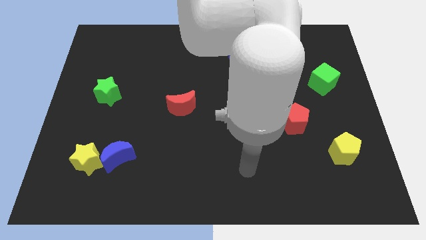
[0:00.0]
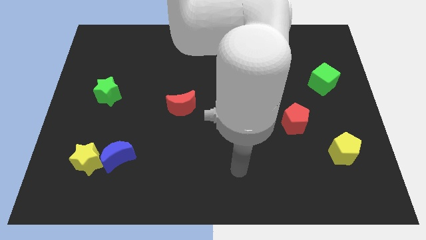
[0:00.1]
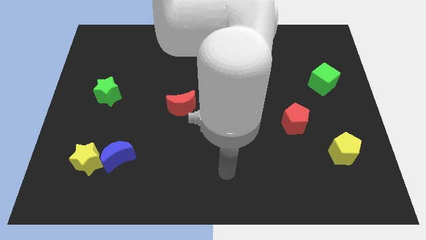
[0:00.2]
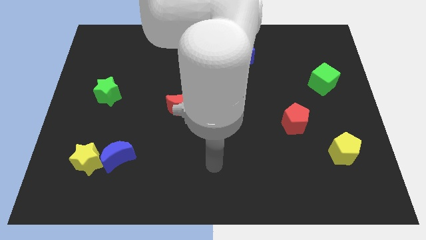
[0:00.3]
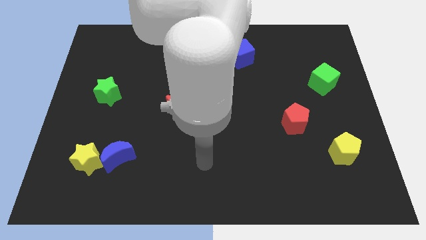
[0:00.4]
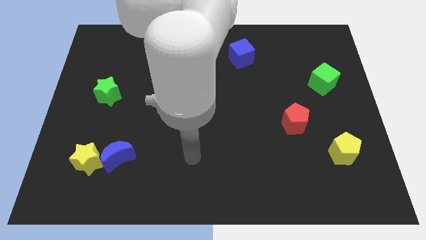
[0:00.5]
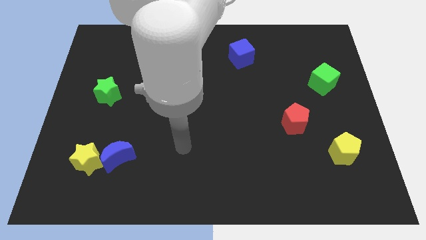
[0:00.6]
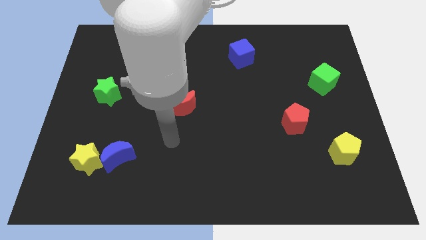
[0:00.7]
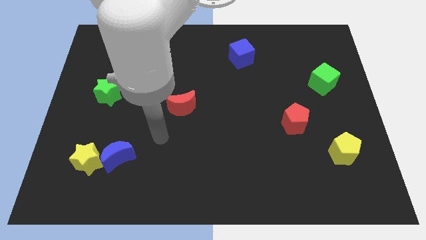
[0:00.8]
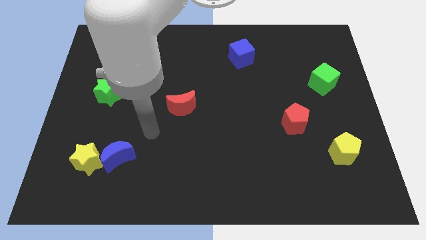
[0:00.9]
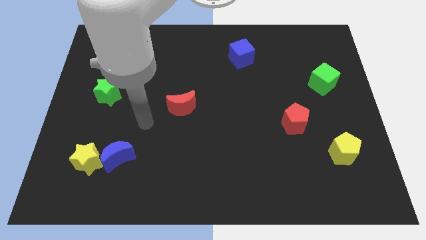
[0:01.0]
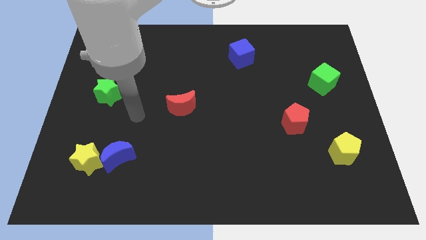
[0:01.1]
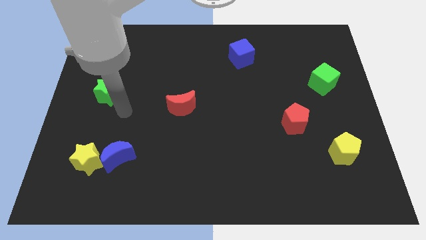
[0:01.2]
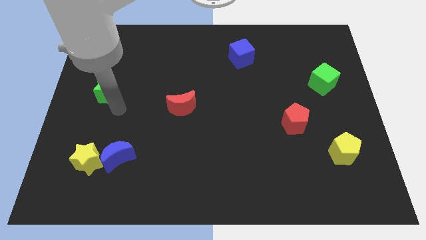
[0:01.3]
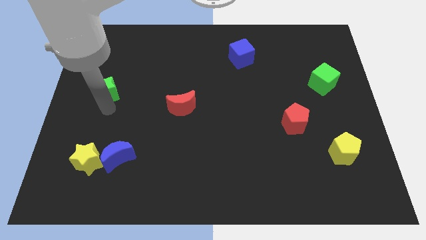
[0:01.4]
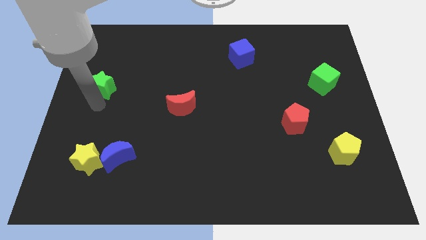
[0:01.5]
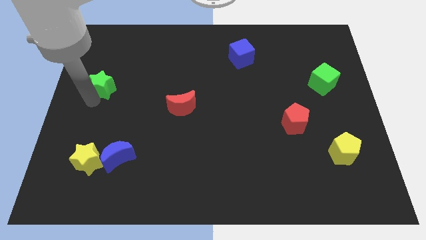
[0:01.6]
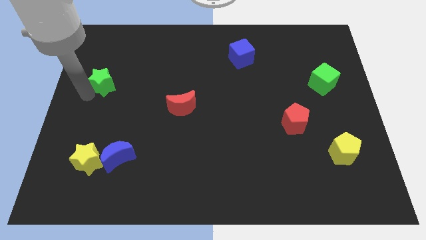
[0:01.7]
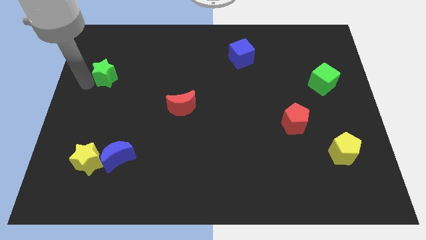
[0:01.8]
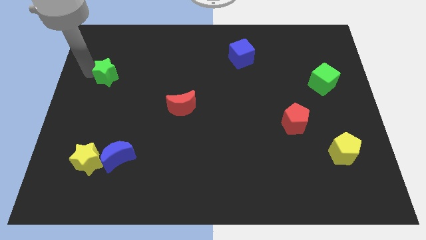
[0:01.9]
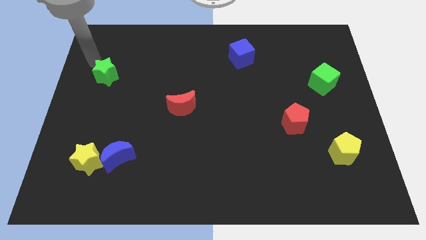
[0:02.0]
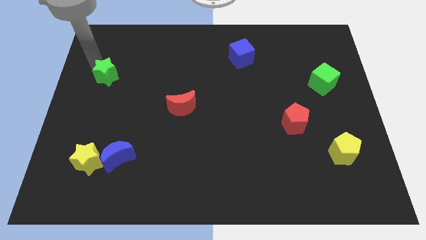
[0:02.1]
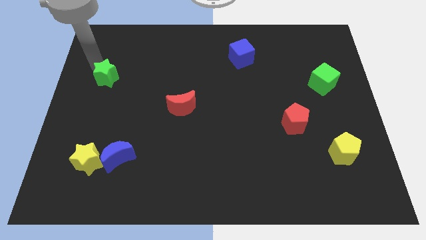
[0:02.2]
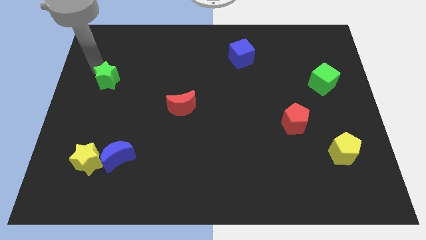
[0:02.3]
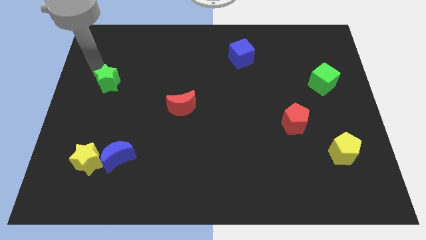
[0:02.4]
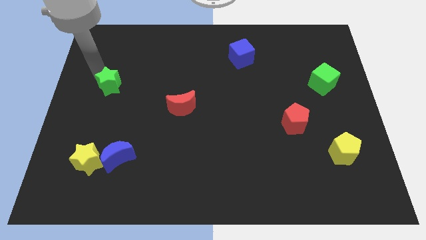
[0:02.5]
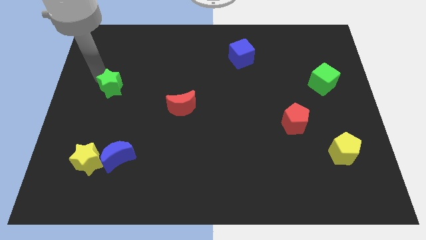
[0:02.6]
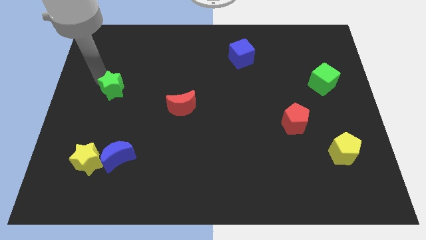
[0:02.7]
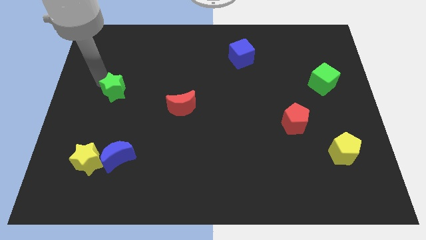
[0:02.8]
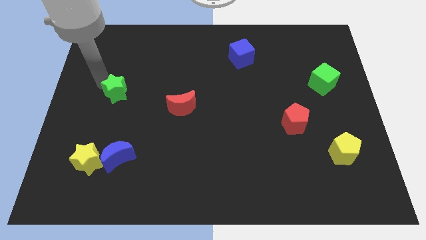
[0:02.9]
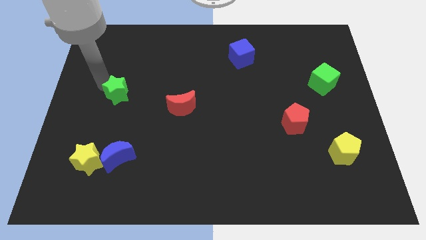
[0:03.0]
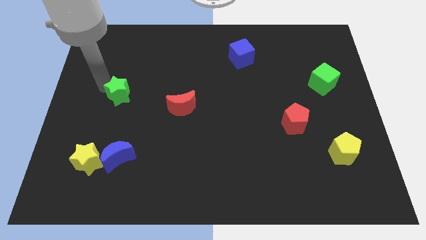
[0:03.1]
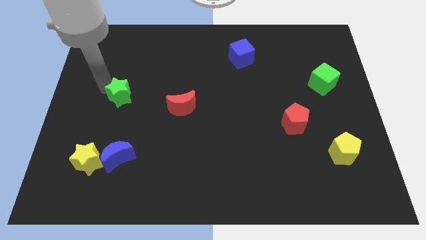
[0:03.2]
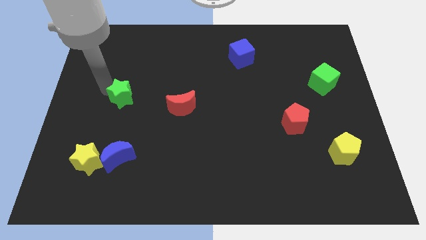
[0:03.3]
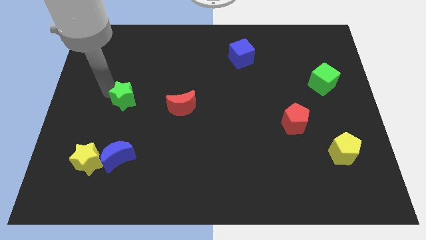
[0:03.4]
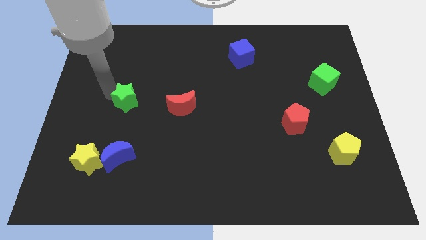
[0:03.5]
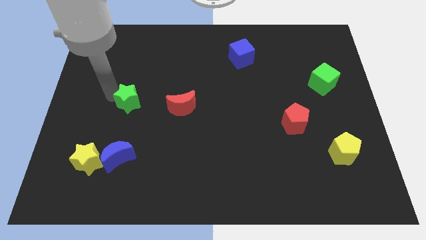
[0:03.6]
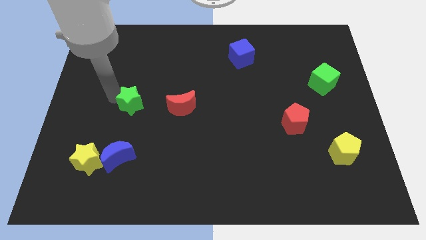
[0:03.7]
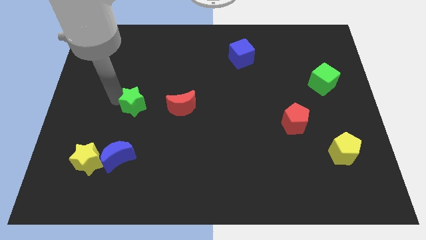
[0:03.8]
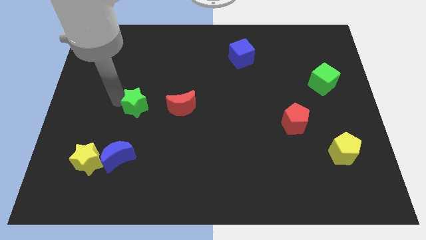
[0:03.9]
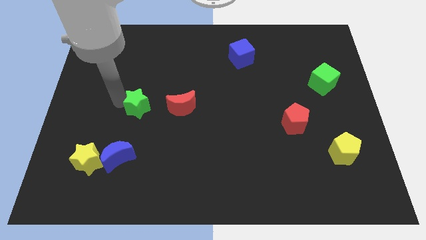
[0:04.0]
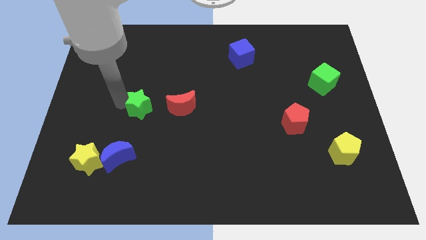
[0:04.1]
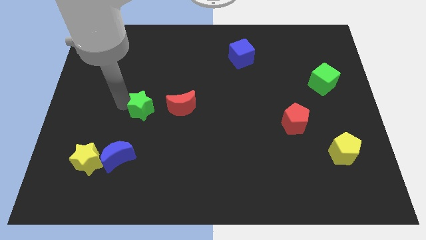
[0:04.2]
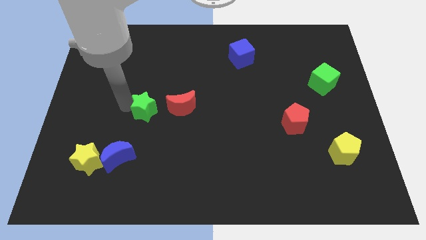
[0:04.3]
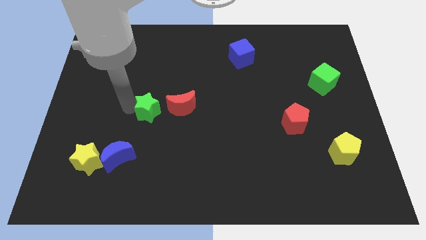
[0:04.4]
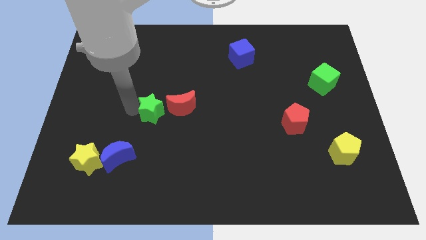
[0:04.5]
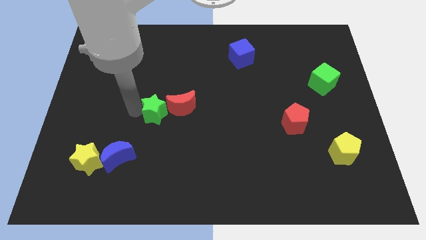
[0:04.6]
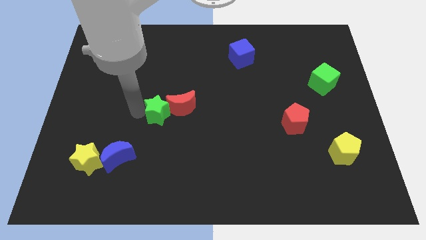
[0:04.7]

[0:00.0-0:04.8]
slide the green star towards the red moon

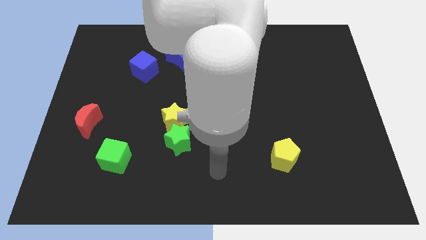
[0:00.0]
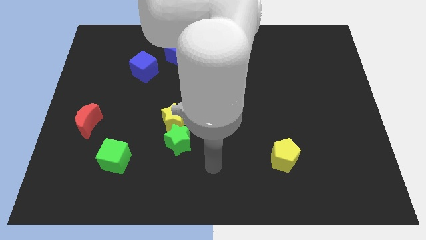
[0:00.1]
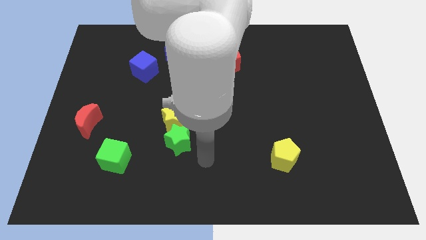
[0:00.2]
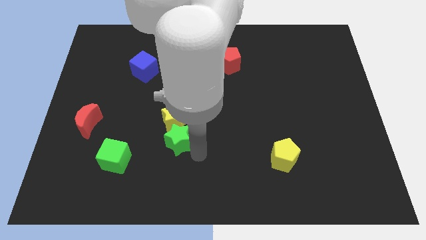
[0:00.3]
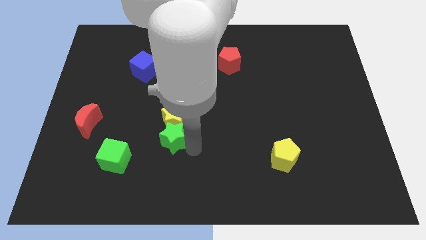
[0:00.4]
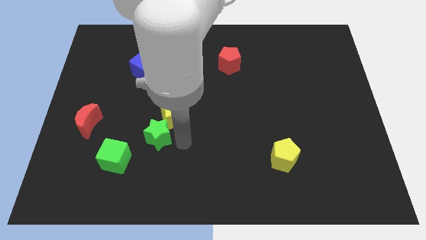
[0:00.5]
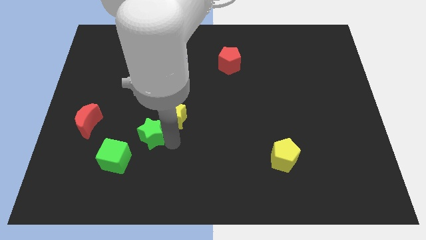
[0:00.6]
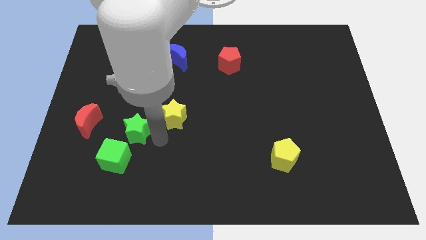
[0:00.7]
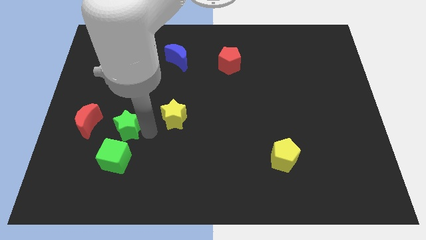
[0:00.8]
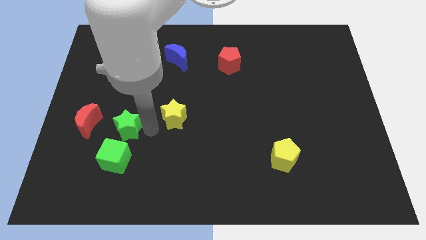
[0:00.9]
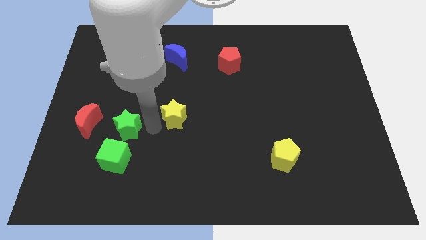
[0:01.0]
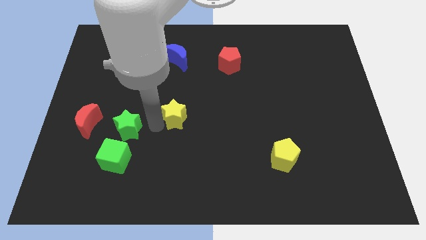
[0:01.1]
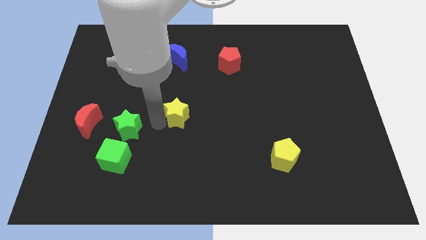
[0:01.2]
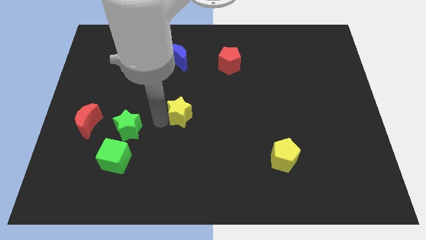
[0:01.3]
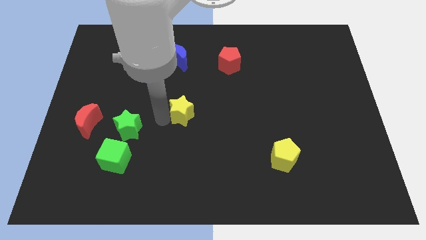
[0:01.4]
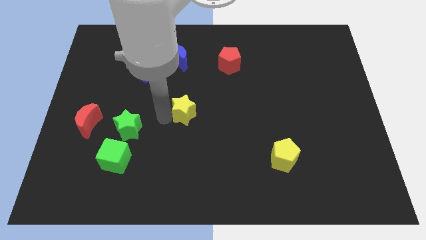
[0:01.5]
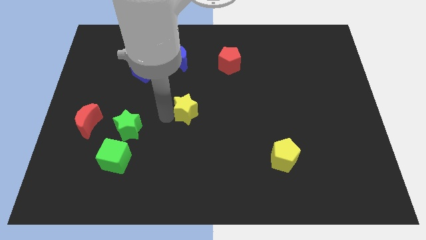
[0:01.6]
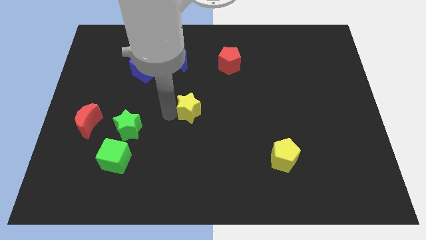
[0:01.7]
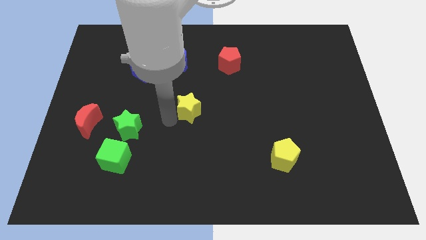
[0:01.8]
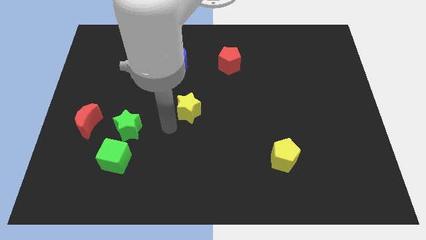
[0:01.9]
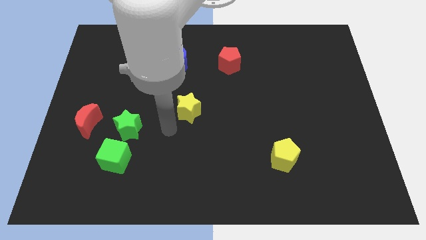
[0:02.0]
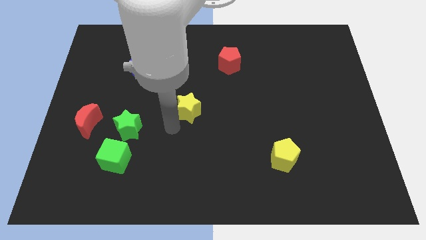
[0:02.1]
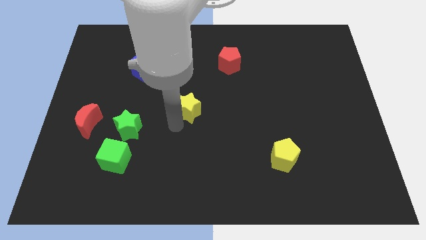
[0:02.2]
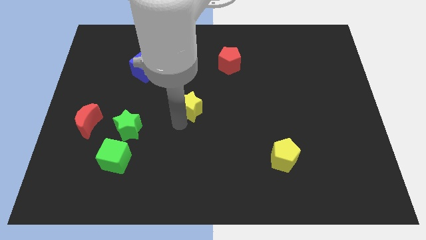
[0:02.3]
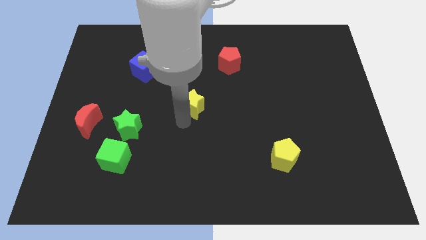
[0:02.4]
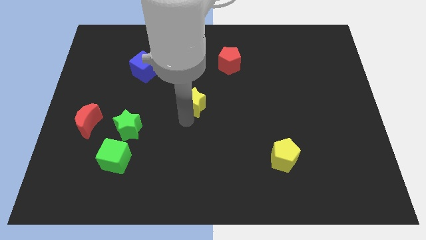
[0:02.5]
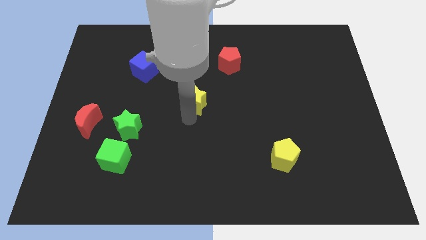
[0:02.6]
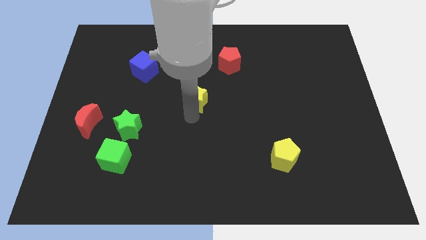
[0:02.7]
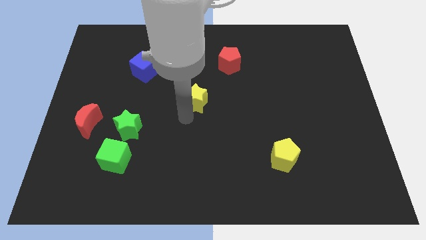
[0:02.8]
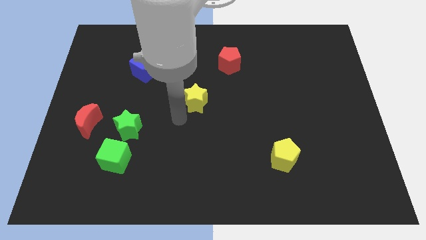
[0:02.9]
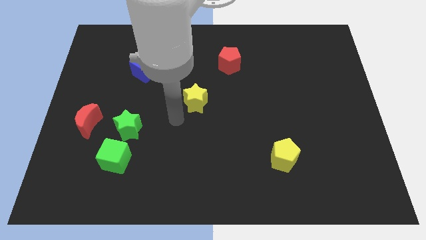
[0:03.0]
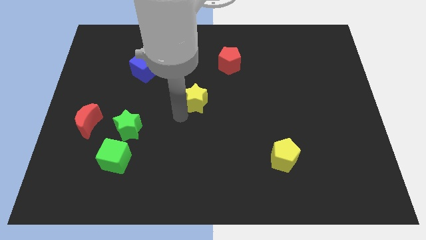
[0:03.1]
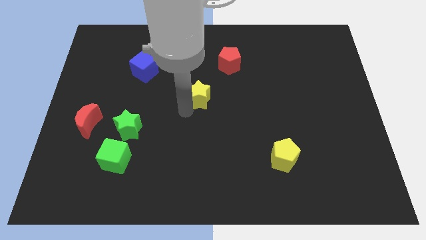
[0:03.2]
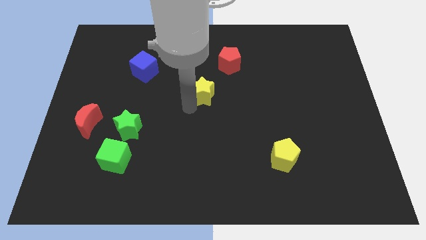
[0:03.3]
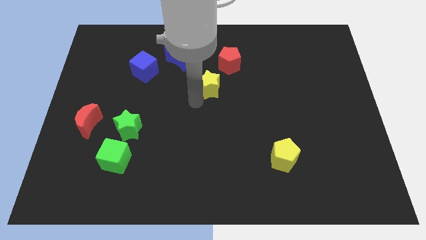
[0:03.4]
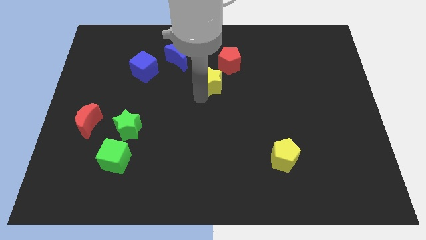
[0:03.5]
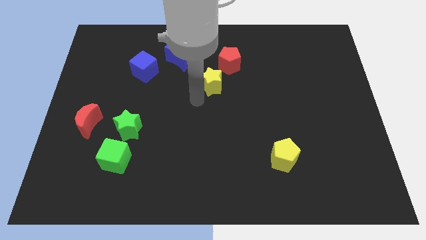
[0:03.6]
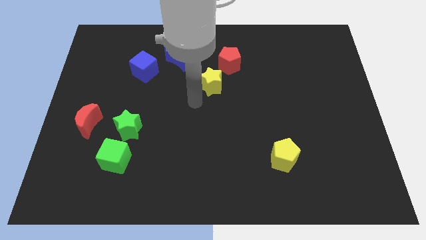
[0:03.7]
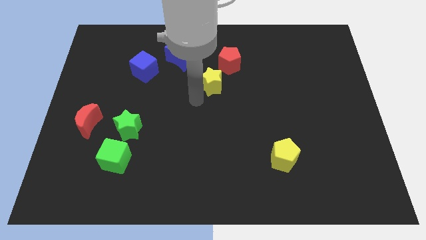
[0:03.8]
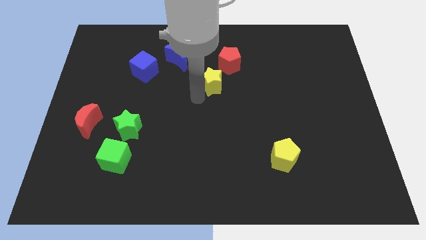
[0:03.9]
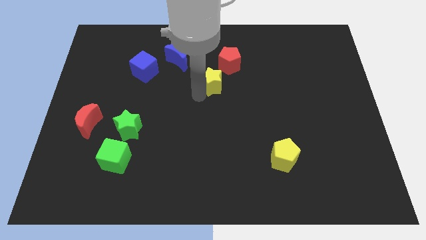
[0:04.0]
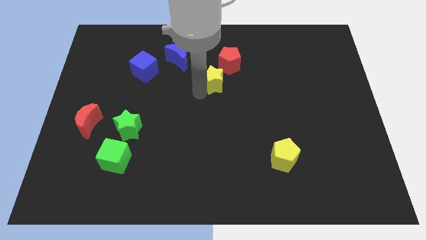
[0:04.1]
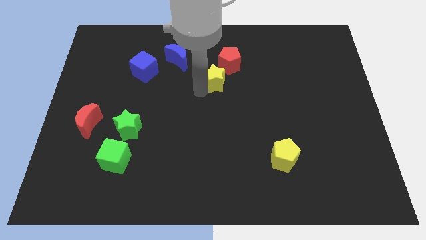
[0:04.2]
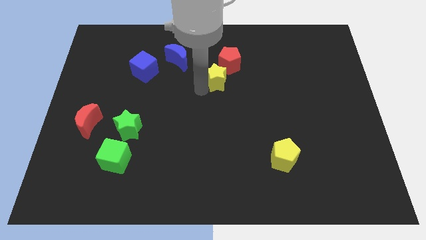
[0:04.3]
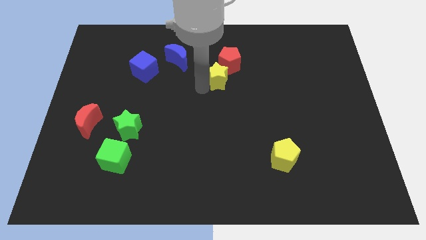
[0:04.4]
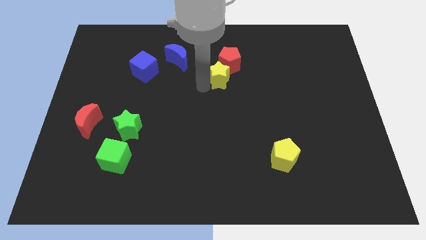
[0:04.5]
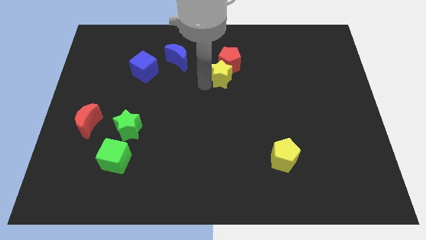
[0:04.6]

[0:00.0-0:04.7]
slide the yellow star towards the red pentagon
